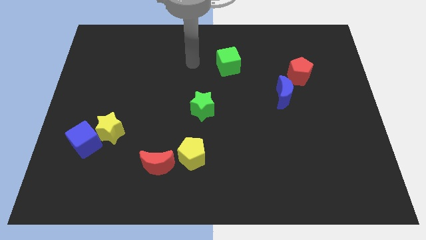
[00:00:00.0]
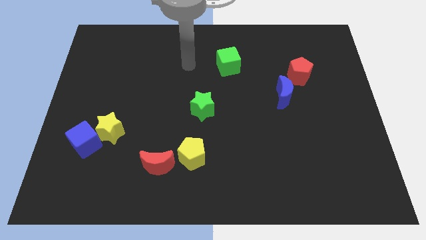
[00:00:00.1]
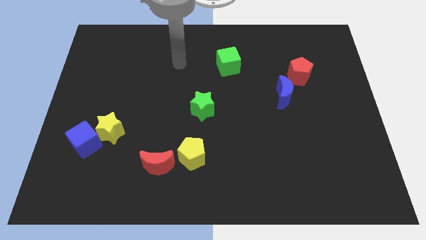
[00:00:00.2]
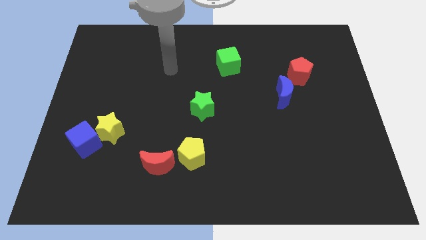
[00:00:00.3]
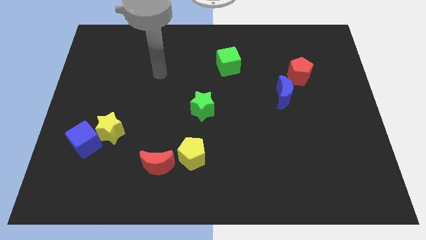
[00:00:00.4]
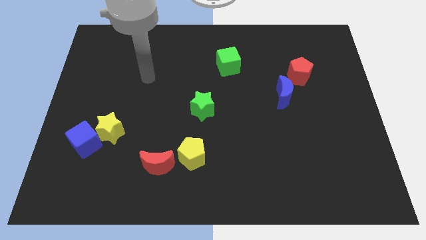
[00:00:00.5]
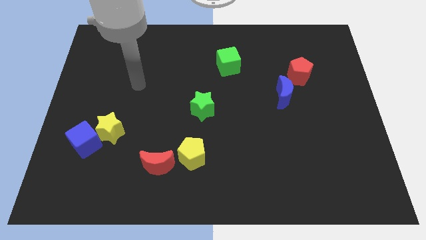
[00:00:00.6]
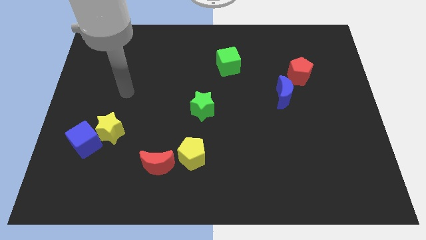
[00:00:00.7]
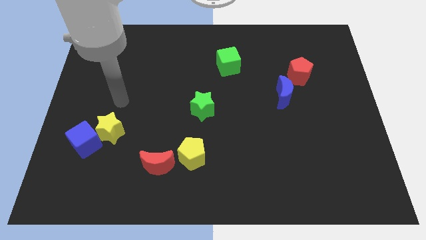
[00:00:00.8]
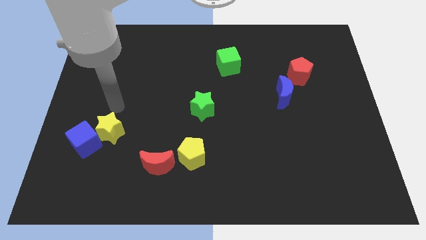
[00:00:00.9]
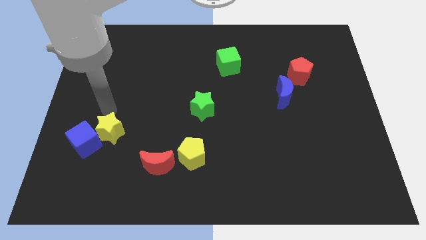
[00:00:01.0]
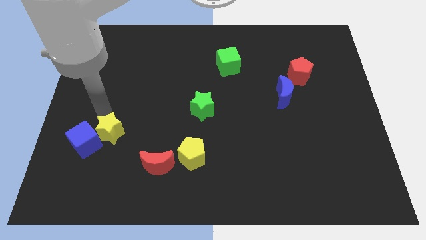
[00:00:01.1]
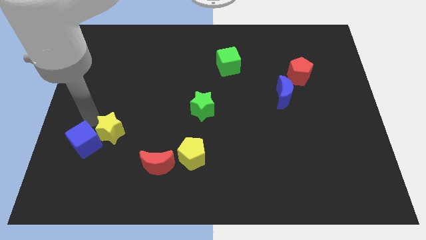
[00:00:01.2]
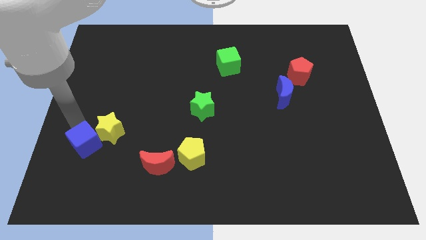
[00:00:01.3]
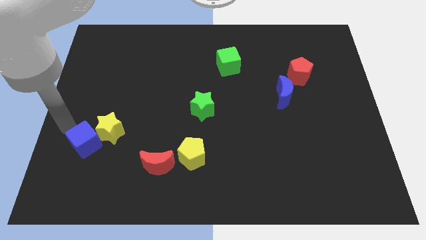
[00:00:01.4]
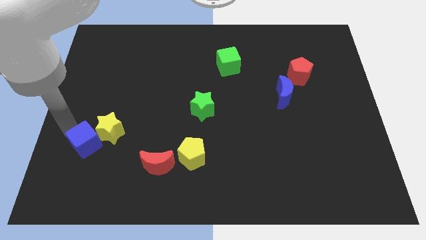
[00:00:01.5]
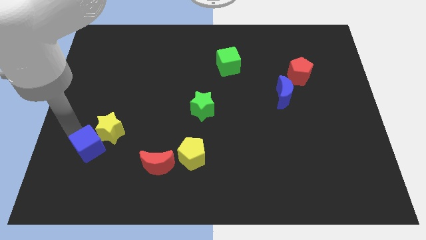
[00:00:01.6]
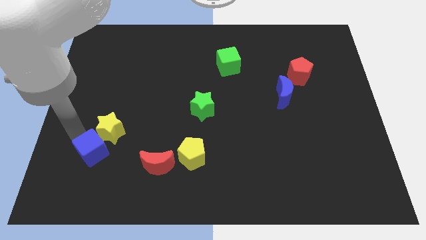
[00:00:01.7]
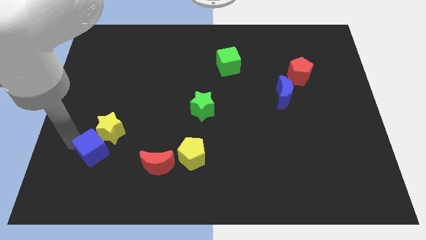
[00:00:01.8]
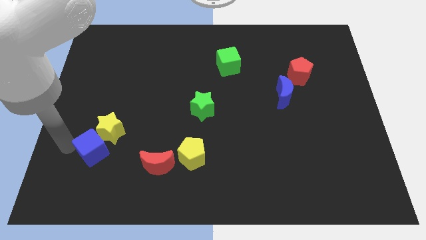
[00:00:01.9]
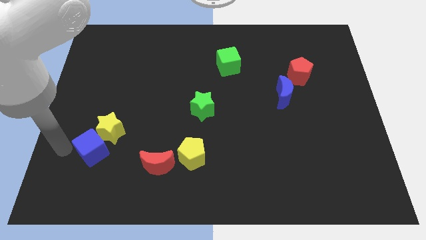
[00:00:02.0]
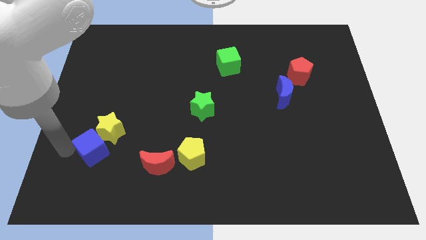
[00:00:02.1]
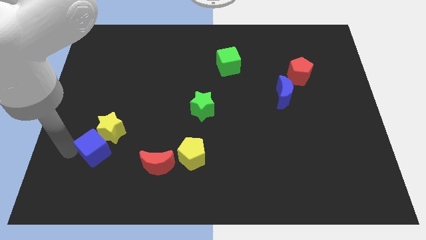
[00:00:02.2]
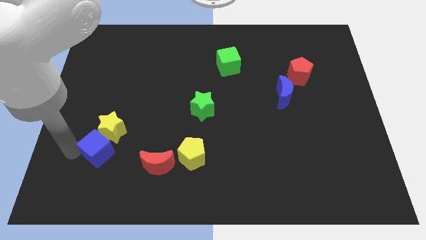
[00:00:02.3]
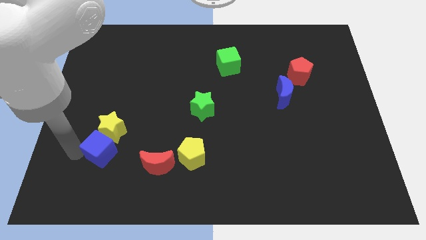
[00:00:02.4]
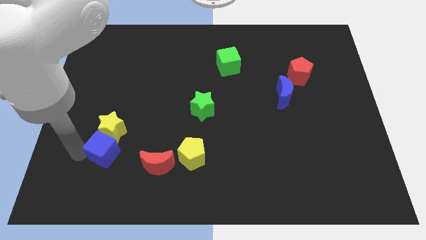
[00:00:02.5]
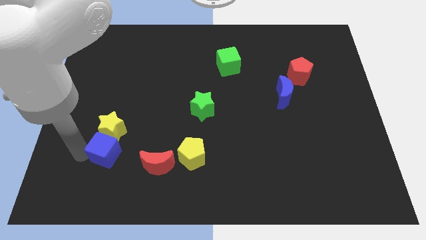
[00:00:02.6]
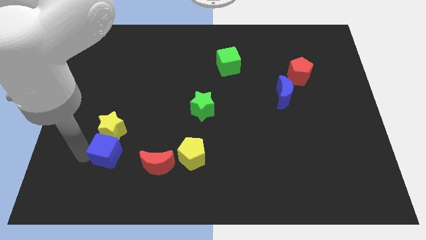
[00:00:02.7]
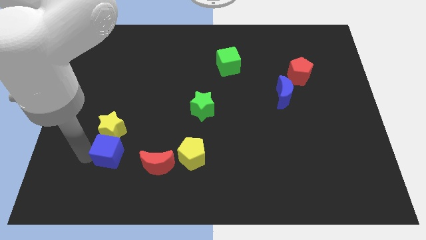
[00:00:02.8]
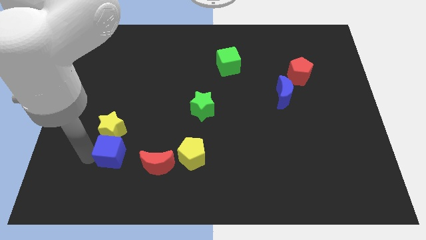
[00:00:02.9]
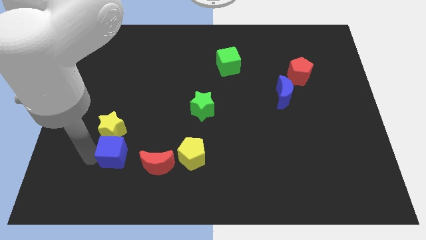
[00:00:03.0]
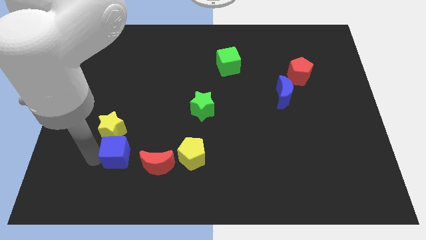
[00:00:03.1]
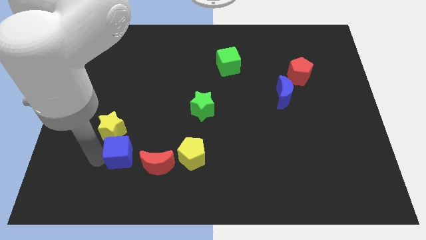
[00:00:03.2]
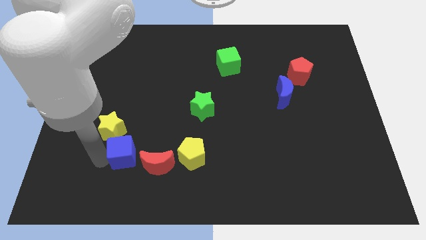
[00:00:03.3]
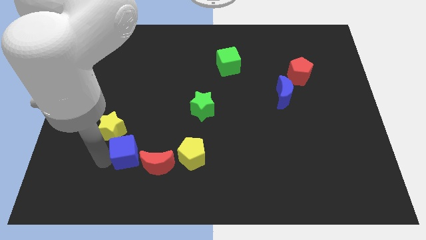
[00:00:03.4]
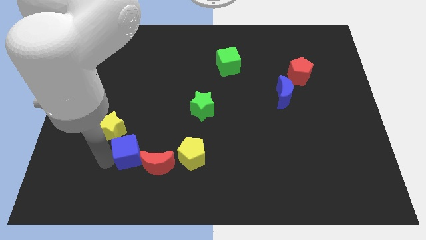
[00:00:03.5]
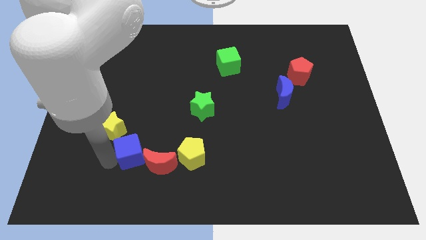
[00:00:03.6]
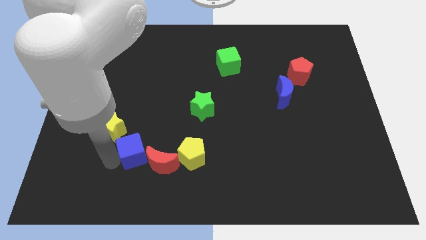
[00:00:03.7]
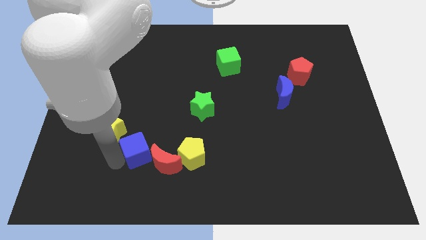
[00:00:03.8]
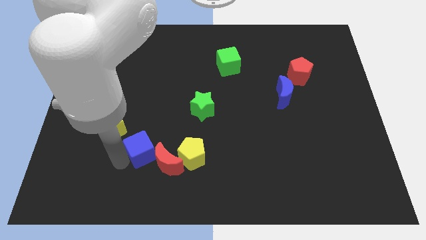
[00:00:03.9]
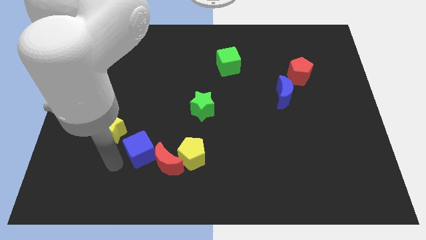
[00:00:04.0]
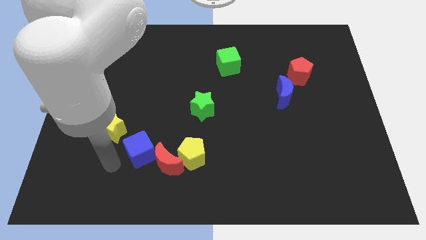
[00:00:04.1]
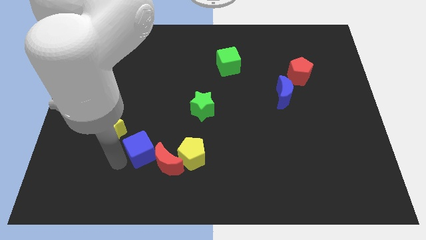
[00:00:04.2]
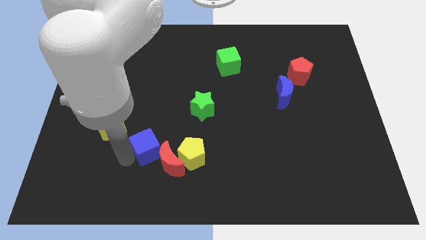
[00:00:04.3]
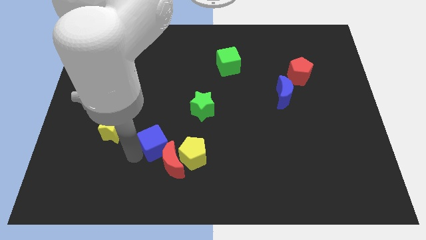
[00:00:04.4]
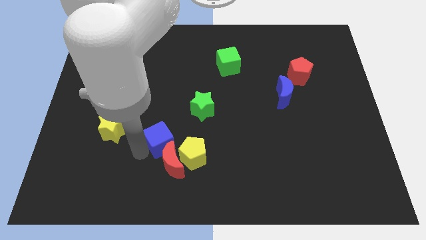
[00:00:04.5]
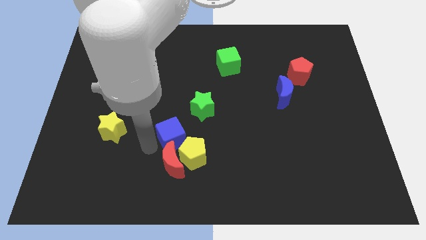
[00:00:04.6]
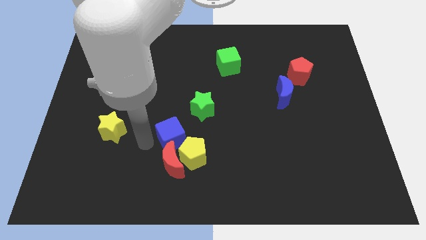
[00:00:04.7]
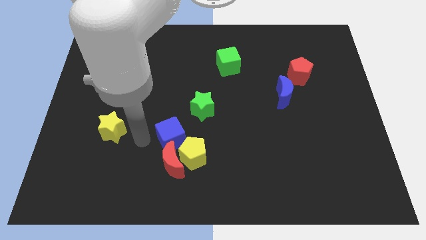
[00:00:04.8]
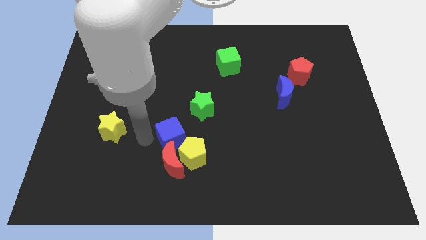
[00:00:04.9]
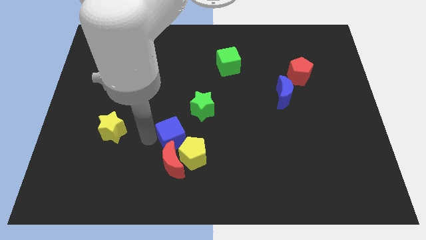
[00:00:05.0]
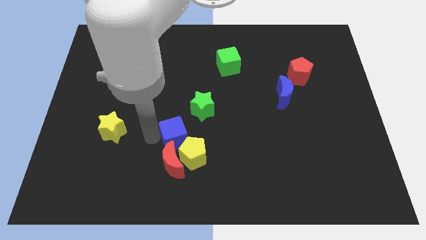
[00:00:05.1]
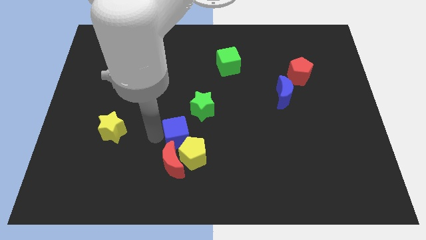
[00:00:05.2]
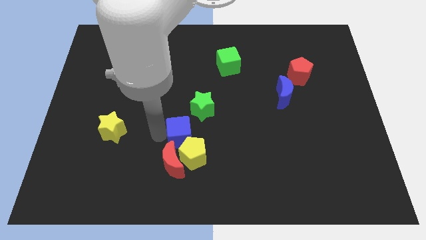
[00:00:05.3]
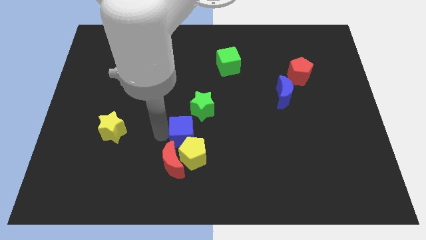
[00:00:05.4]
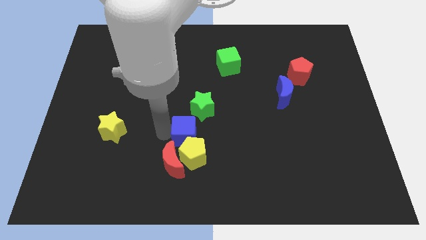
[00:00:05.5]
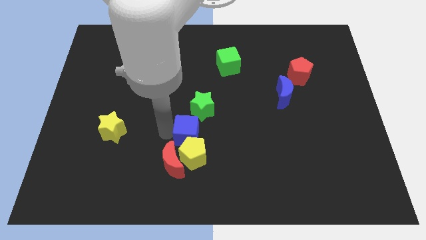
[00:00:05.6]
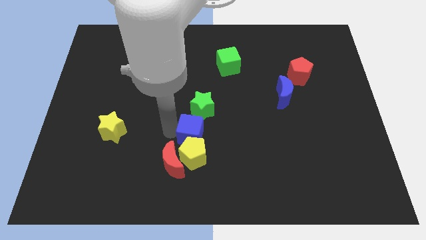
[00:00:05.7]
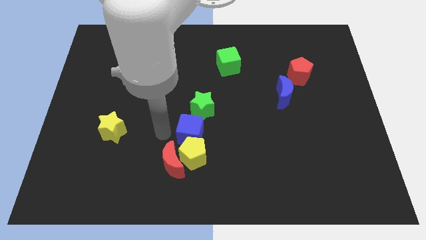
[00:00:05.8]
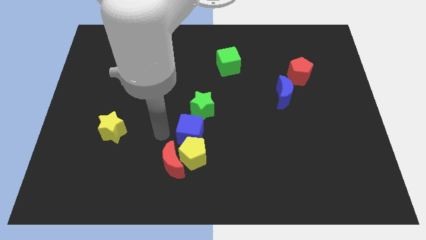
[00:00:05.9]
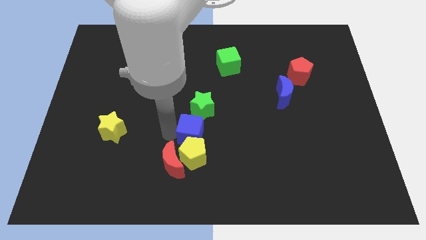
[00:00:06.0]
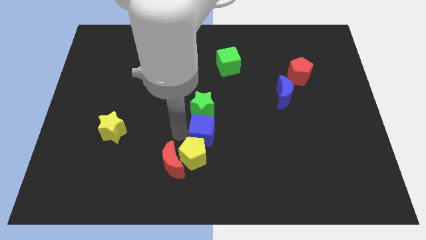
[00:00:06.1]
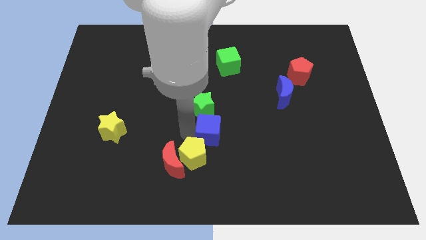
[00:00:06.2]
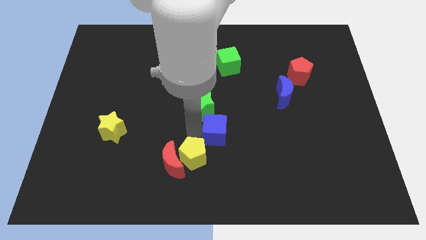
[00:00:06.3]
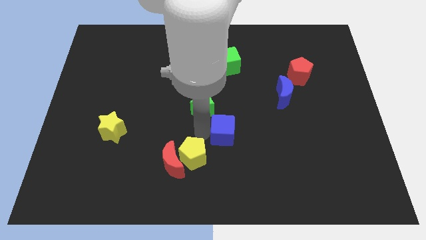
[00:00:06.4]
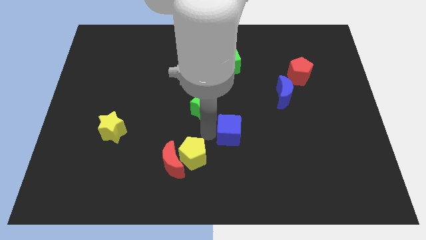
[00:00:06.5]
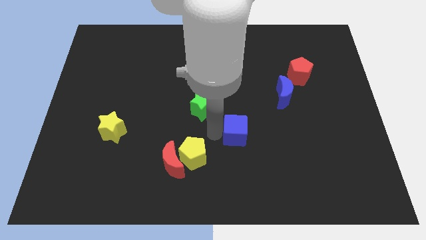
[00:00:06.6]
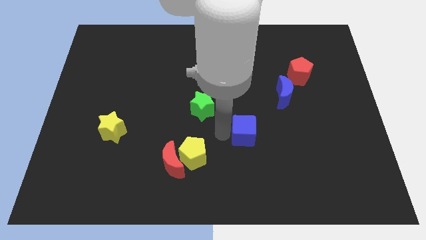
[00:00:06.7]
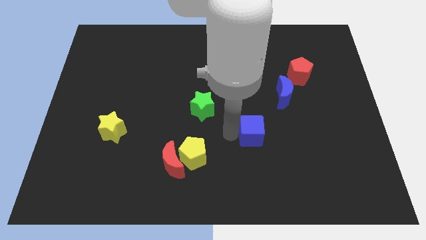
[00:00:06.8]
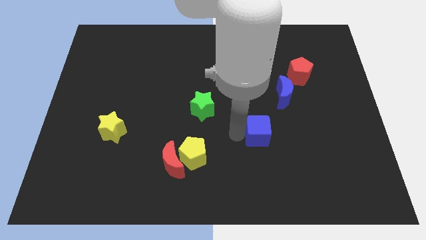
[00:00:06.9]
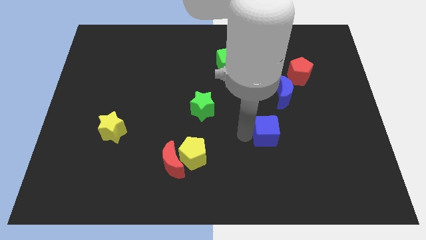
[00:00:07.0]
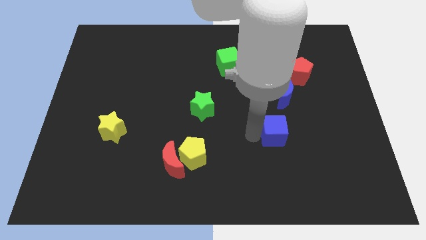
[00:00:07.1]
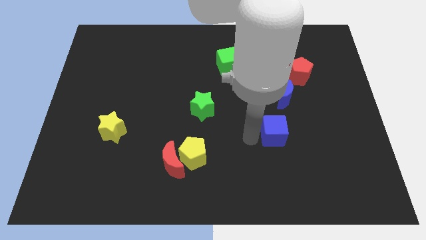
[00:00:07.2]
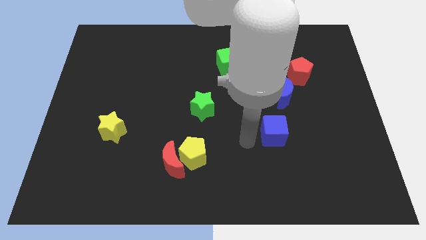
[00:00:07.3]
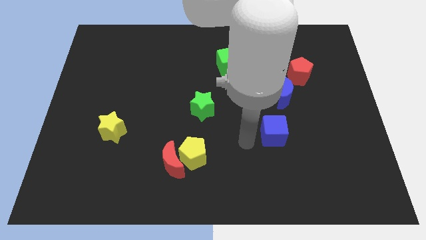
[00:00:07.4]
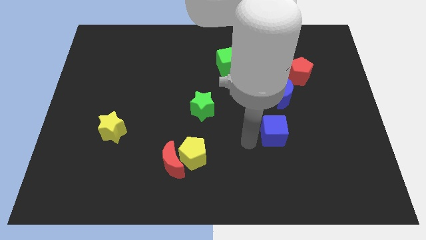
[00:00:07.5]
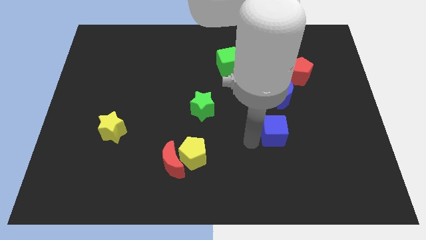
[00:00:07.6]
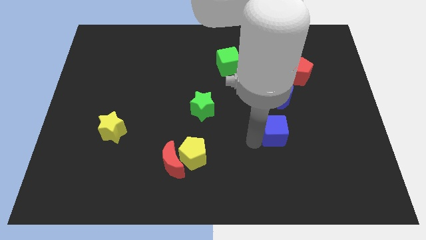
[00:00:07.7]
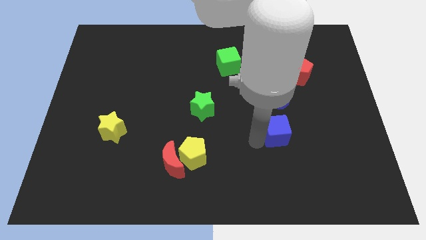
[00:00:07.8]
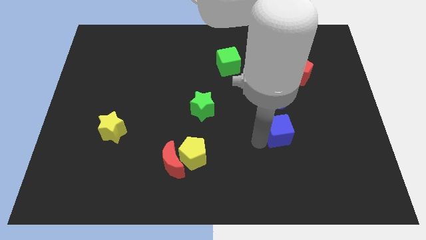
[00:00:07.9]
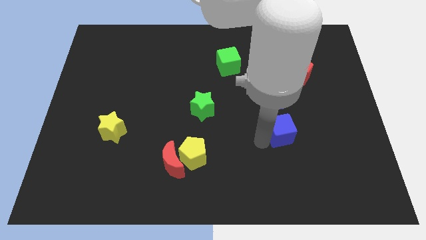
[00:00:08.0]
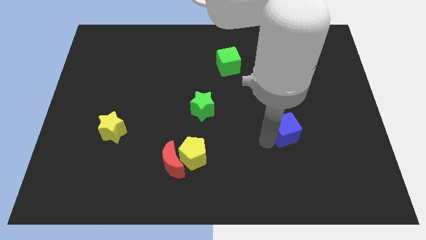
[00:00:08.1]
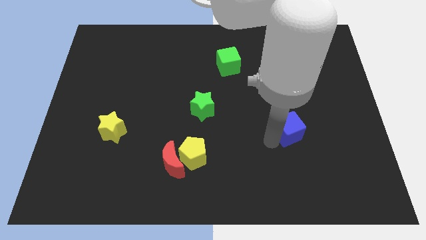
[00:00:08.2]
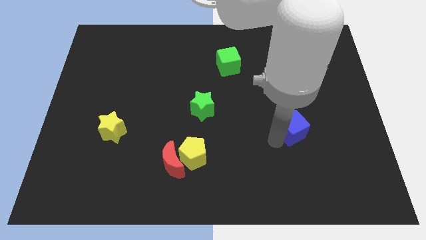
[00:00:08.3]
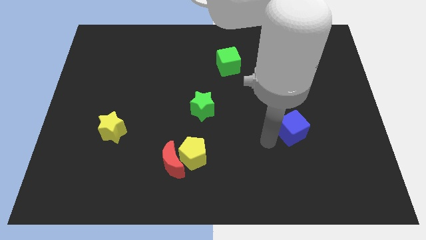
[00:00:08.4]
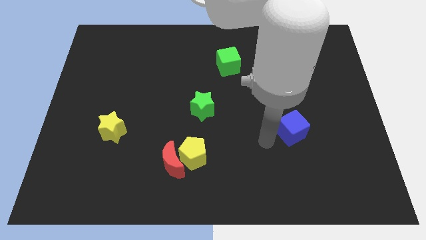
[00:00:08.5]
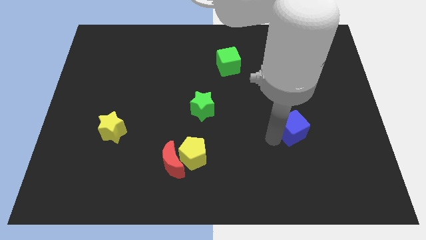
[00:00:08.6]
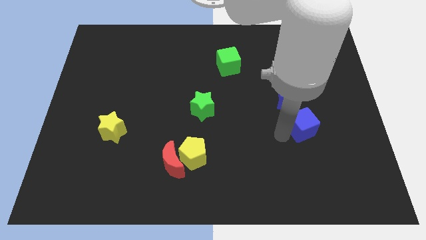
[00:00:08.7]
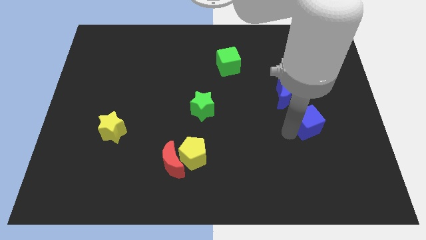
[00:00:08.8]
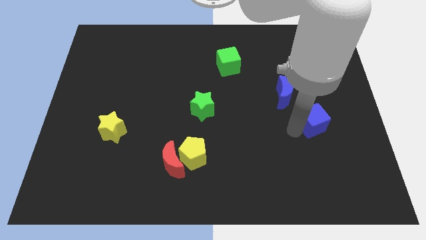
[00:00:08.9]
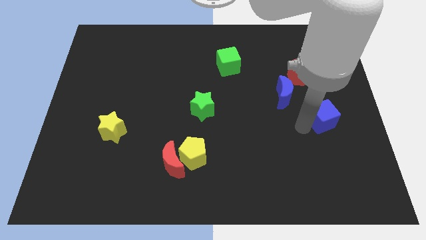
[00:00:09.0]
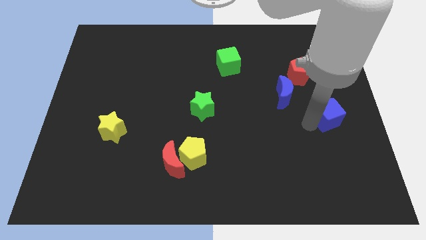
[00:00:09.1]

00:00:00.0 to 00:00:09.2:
move the blue cube to the right side of the board
